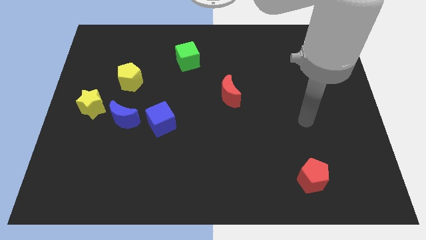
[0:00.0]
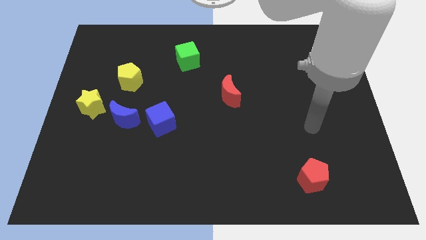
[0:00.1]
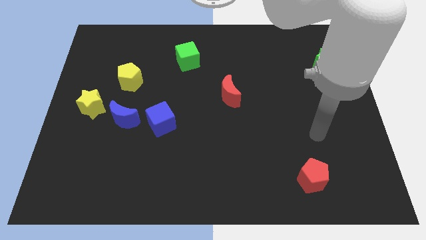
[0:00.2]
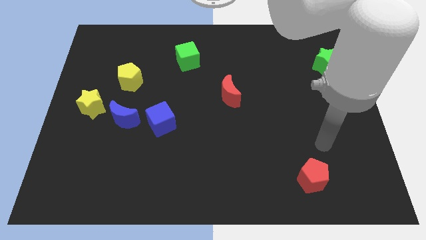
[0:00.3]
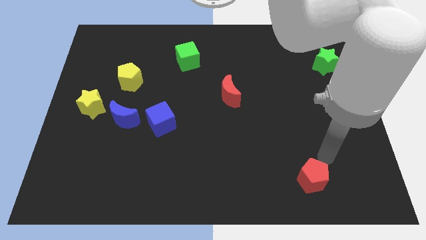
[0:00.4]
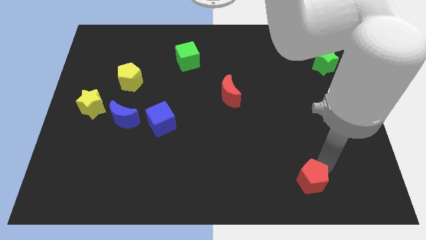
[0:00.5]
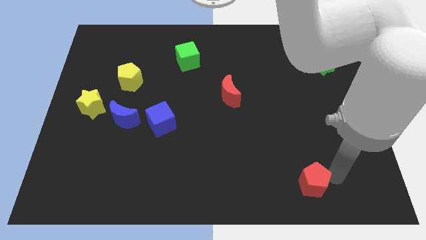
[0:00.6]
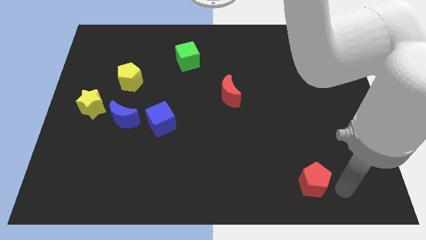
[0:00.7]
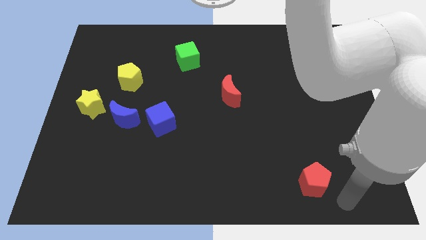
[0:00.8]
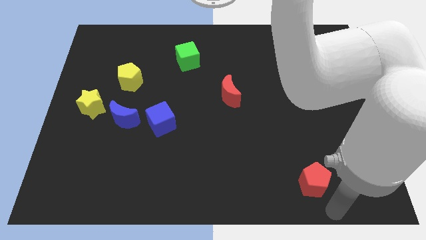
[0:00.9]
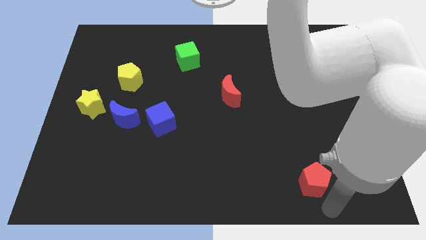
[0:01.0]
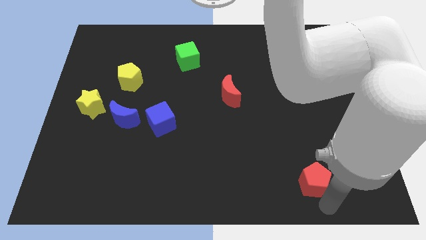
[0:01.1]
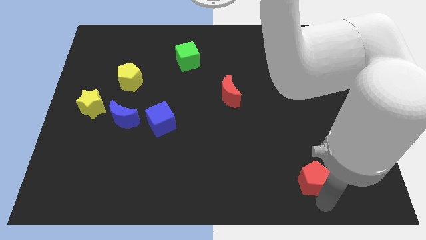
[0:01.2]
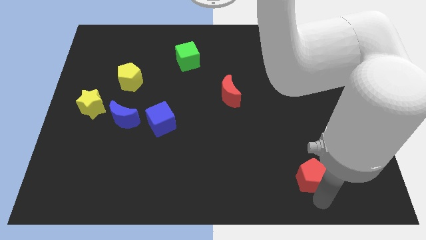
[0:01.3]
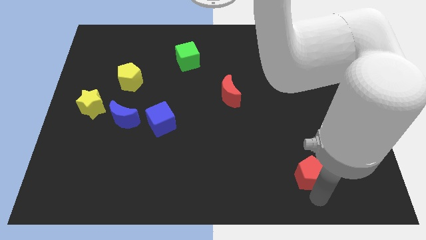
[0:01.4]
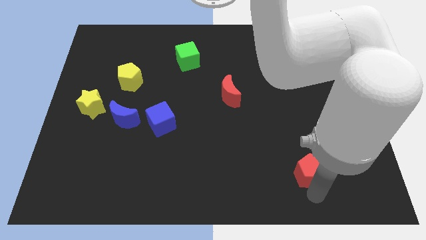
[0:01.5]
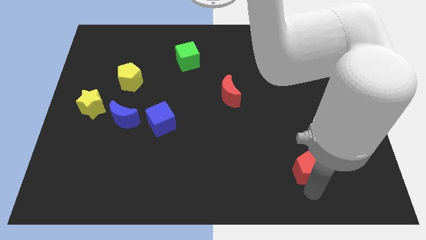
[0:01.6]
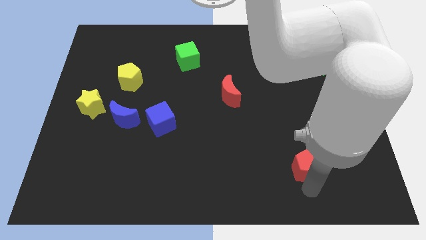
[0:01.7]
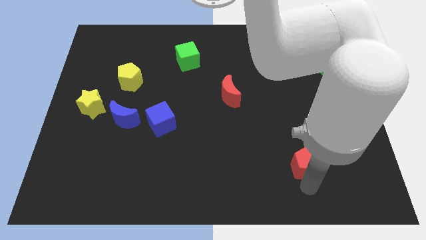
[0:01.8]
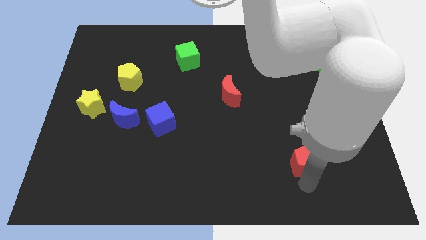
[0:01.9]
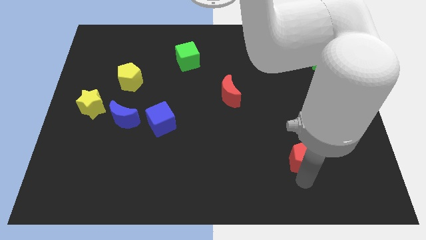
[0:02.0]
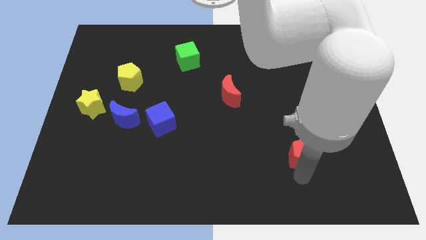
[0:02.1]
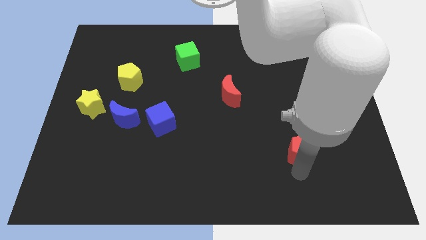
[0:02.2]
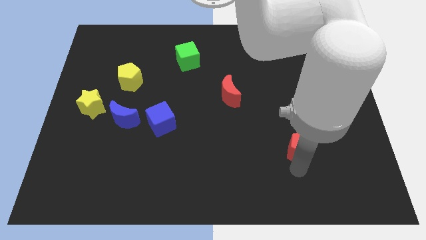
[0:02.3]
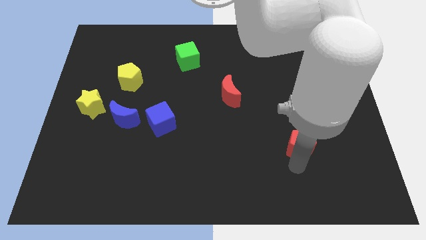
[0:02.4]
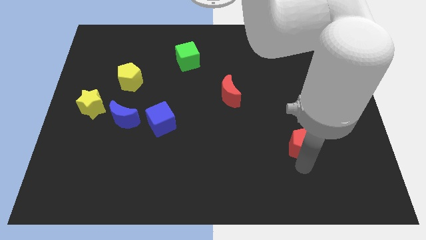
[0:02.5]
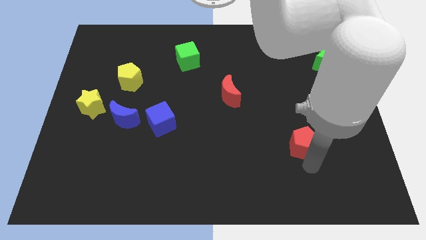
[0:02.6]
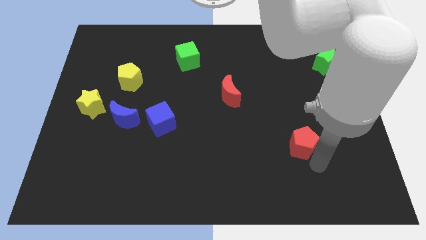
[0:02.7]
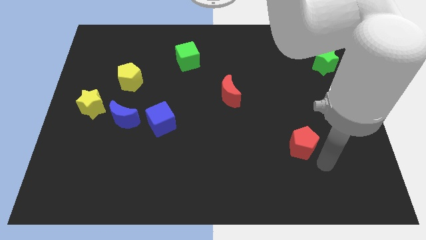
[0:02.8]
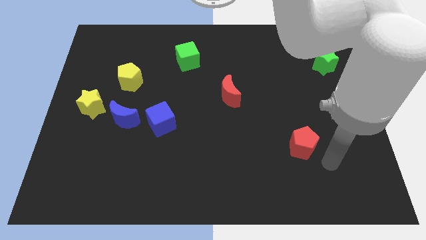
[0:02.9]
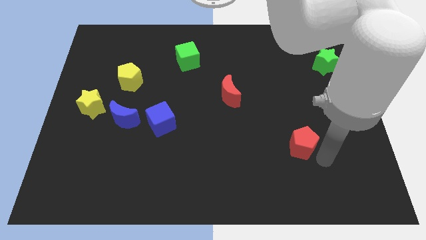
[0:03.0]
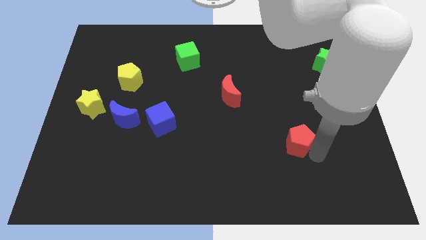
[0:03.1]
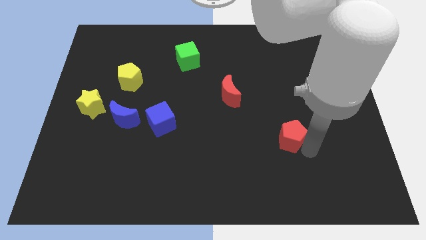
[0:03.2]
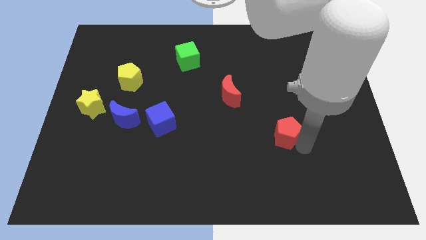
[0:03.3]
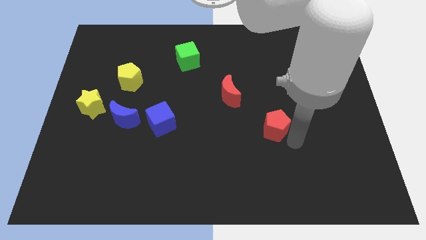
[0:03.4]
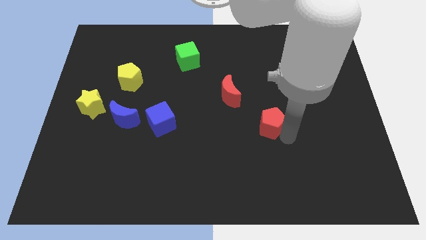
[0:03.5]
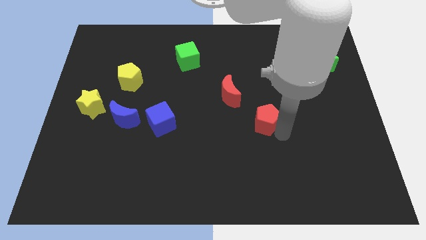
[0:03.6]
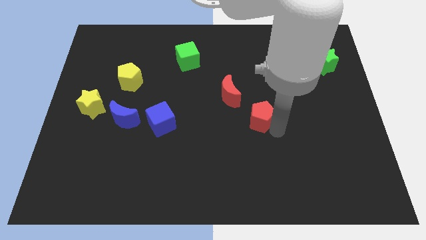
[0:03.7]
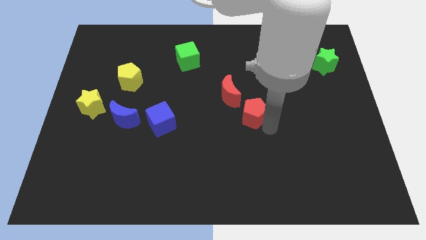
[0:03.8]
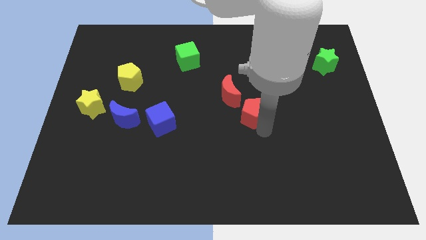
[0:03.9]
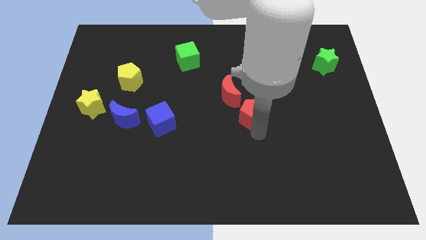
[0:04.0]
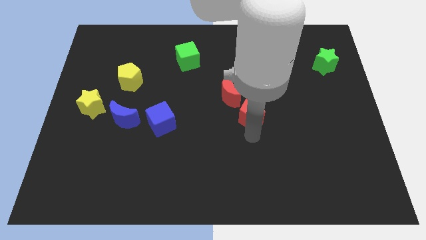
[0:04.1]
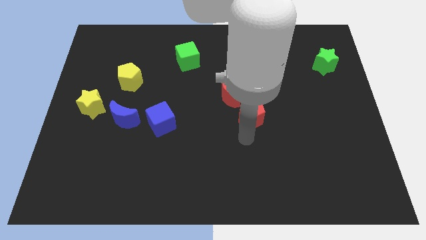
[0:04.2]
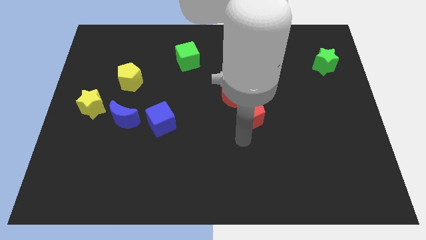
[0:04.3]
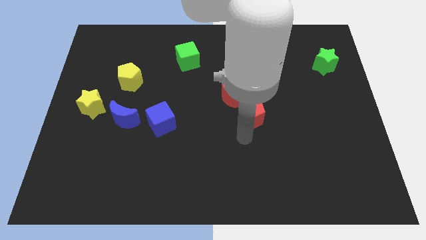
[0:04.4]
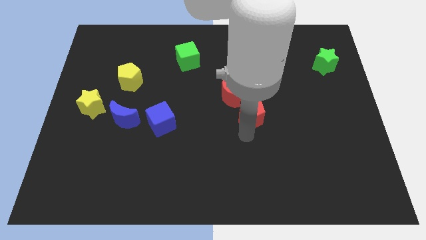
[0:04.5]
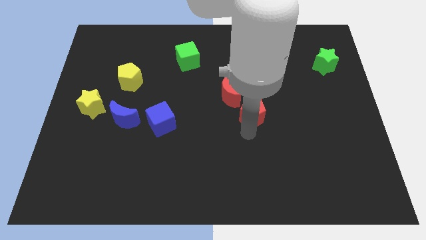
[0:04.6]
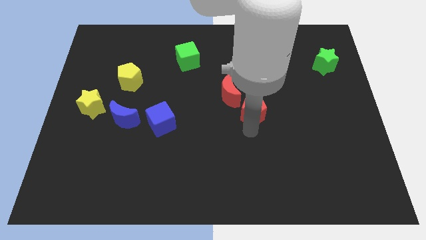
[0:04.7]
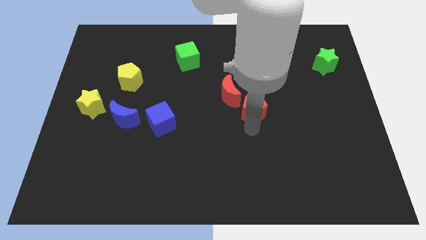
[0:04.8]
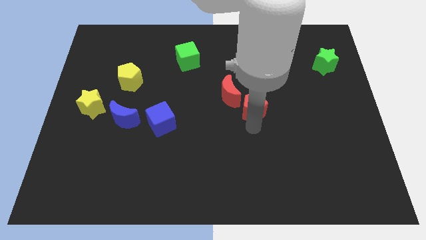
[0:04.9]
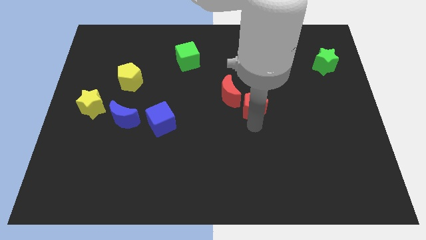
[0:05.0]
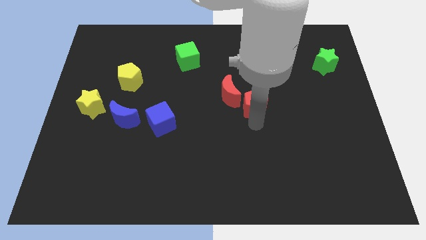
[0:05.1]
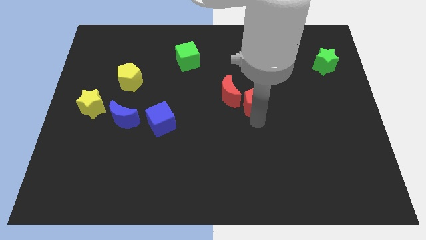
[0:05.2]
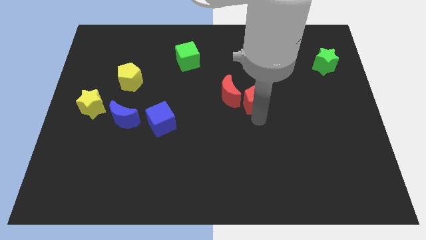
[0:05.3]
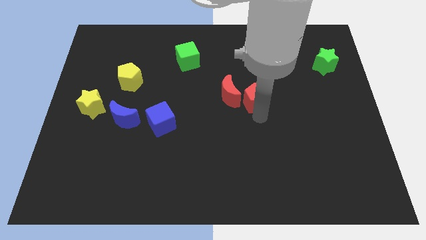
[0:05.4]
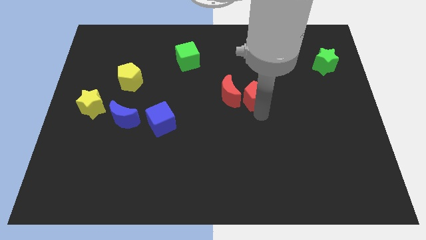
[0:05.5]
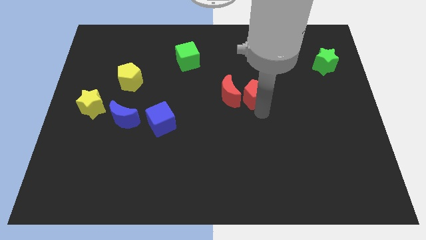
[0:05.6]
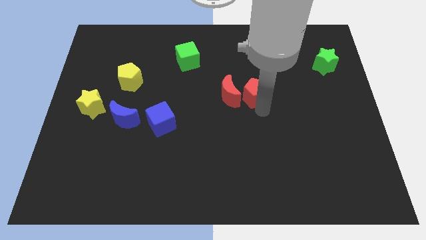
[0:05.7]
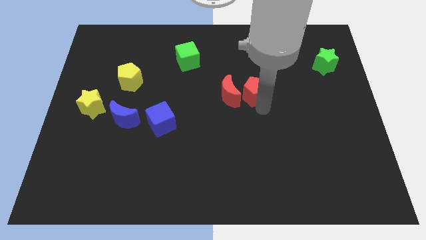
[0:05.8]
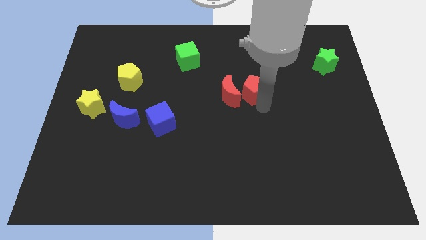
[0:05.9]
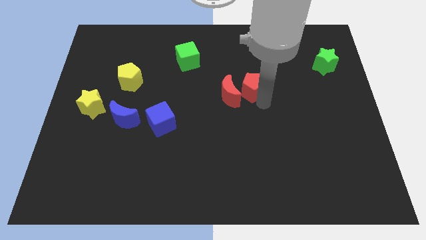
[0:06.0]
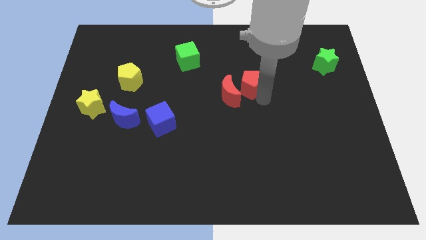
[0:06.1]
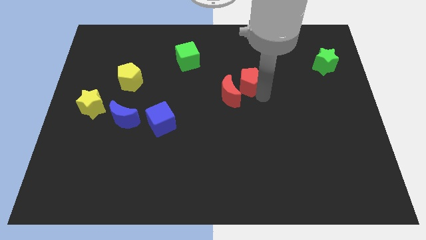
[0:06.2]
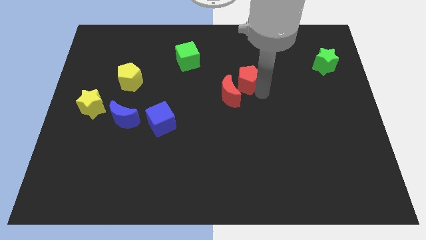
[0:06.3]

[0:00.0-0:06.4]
put the red pentagon to the top of the red moon

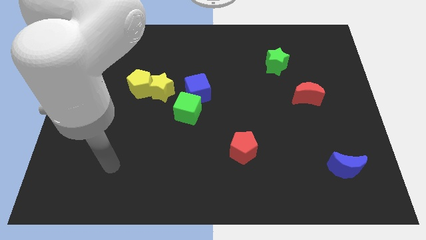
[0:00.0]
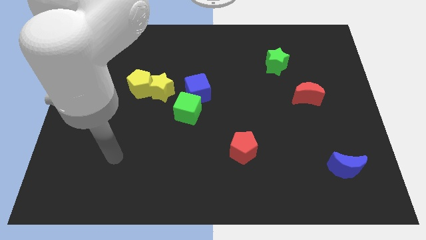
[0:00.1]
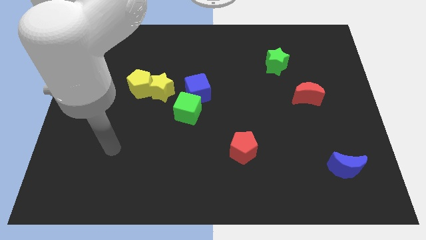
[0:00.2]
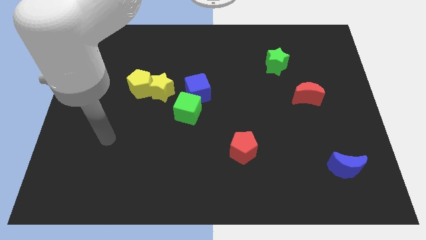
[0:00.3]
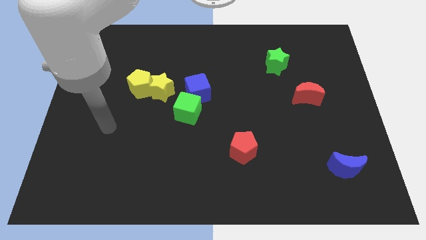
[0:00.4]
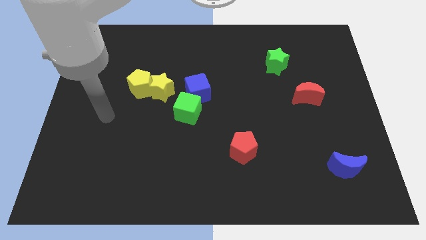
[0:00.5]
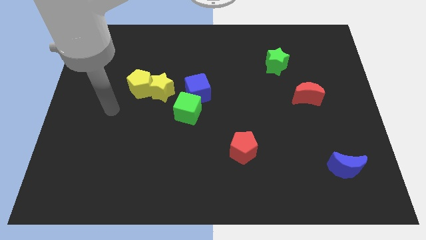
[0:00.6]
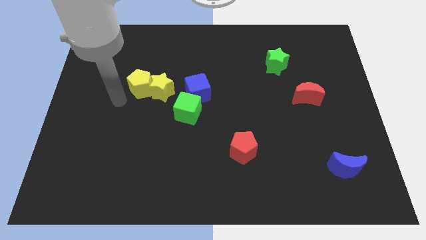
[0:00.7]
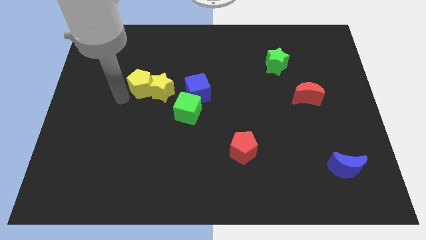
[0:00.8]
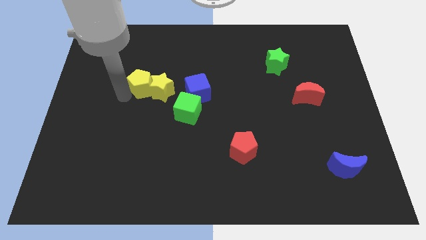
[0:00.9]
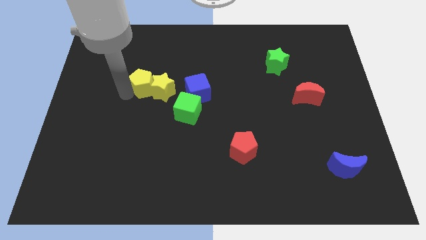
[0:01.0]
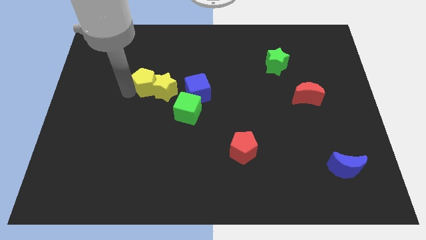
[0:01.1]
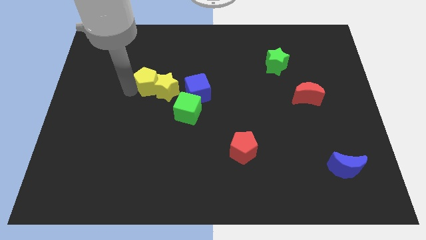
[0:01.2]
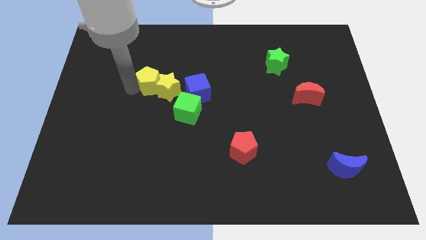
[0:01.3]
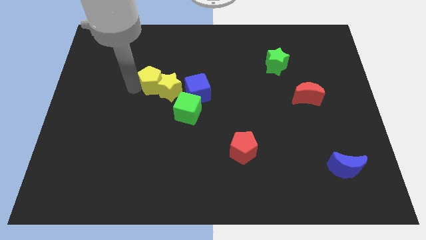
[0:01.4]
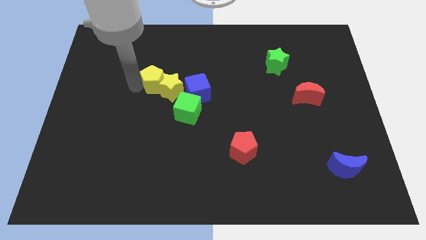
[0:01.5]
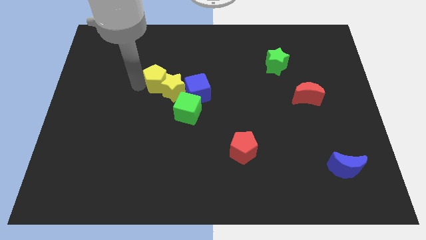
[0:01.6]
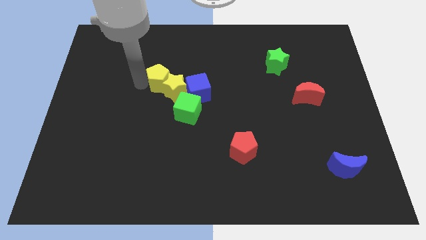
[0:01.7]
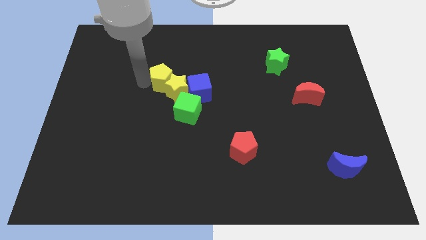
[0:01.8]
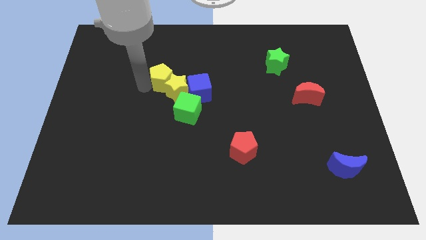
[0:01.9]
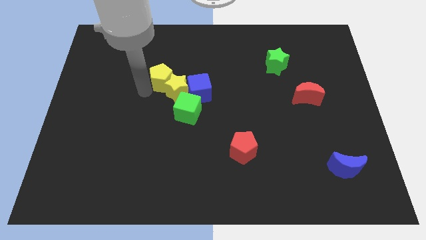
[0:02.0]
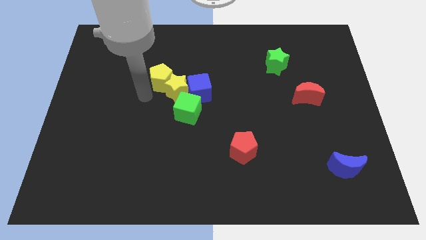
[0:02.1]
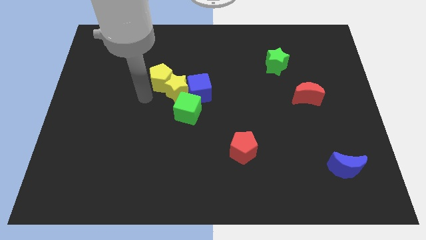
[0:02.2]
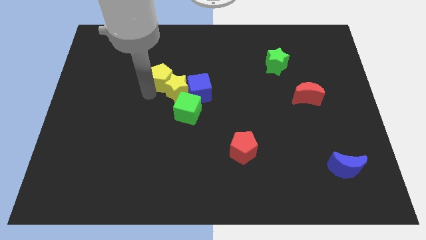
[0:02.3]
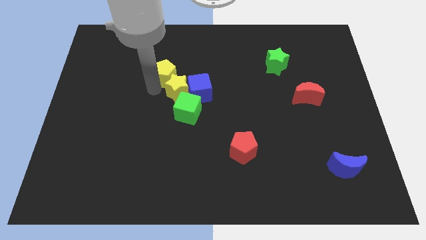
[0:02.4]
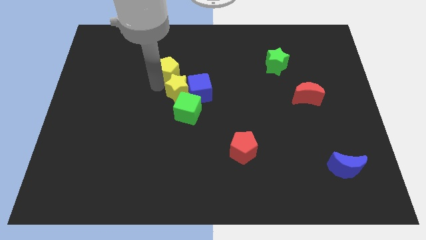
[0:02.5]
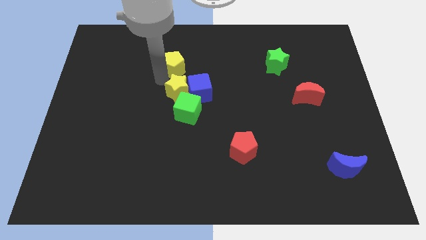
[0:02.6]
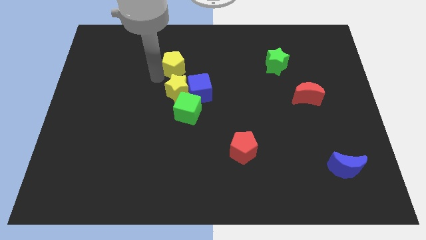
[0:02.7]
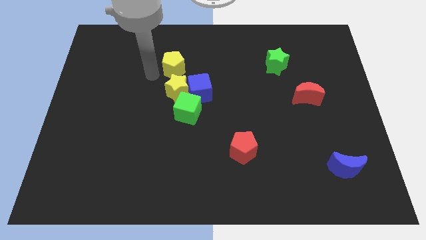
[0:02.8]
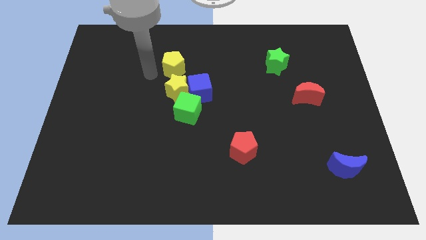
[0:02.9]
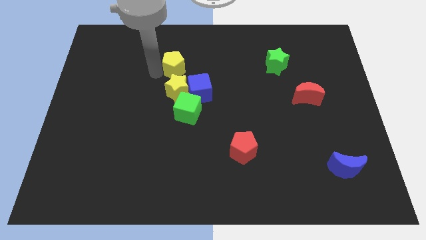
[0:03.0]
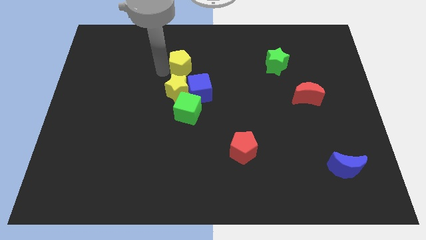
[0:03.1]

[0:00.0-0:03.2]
push the yellow pentagon to the top of the blue cube
